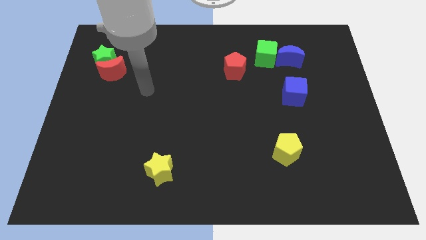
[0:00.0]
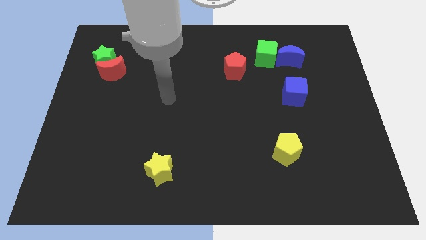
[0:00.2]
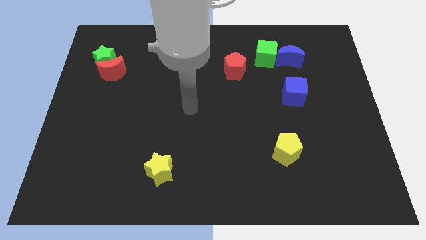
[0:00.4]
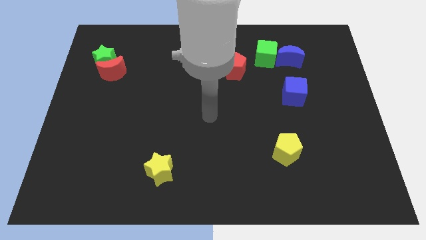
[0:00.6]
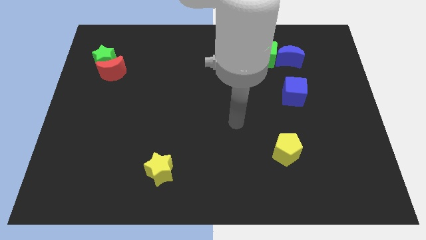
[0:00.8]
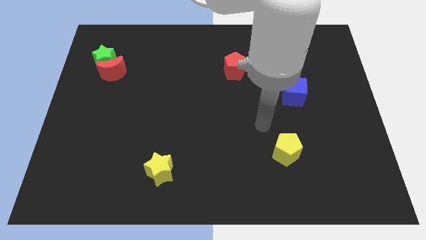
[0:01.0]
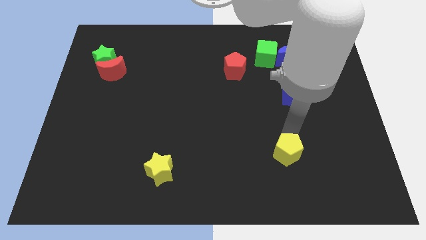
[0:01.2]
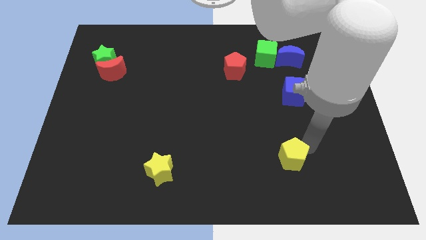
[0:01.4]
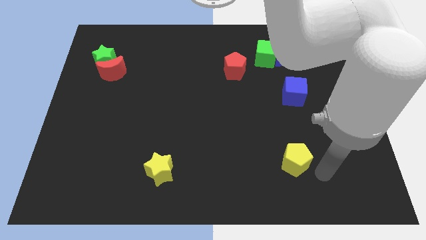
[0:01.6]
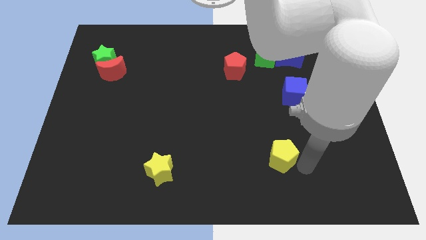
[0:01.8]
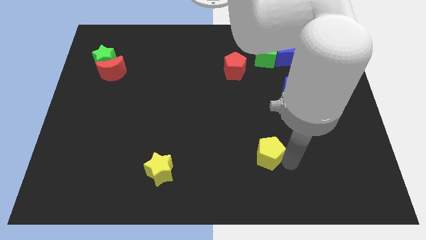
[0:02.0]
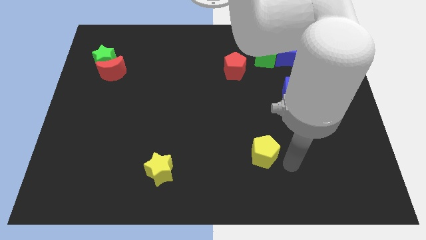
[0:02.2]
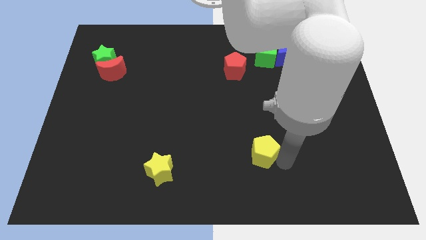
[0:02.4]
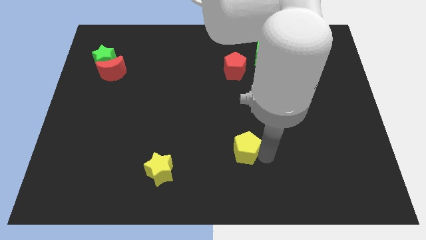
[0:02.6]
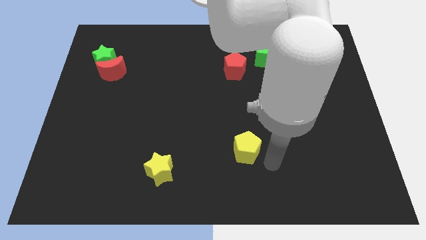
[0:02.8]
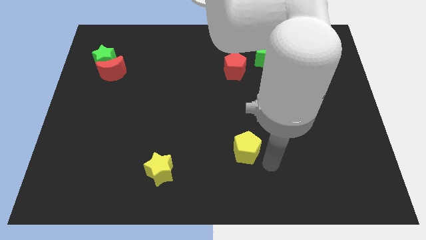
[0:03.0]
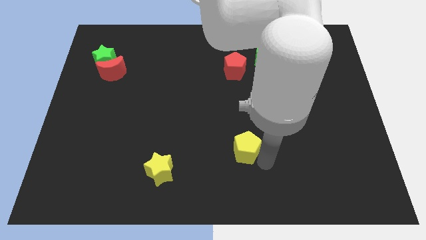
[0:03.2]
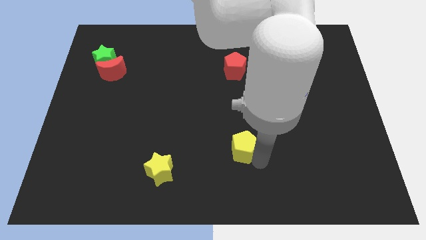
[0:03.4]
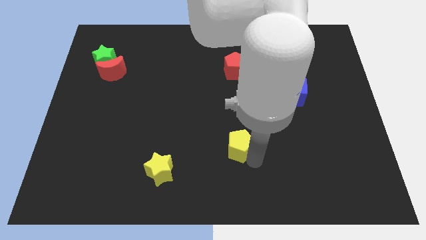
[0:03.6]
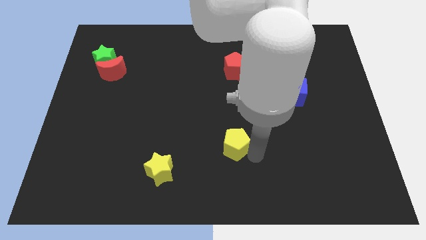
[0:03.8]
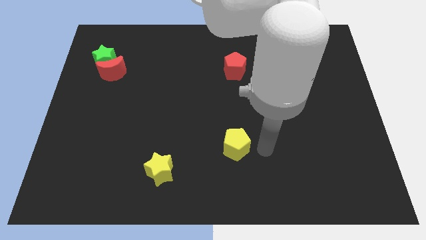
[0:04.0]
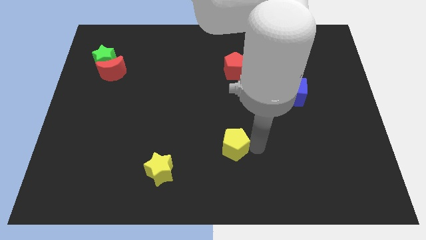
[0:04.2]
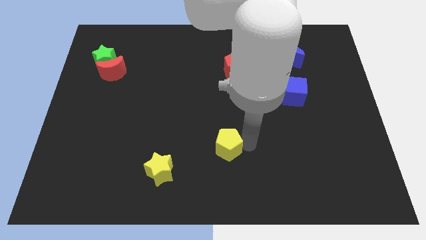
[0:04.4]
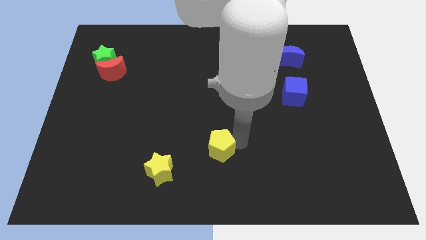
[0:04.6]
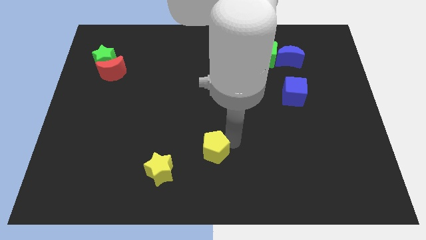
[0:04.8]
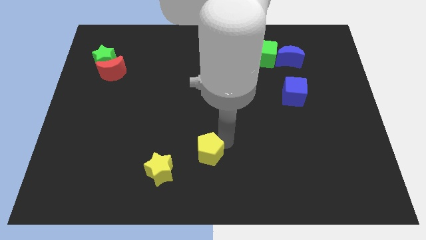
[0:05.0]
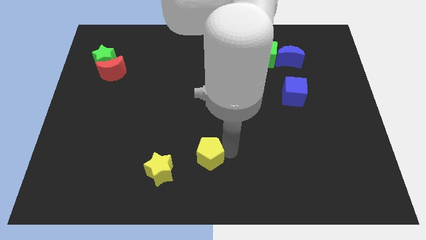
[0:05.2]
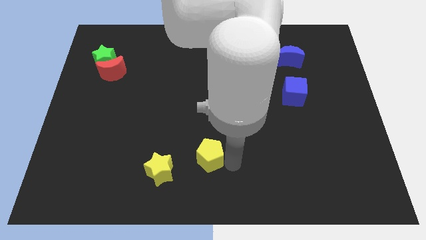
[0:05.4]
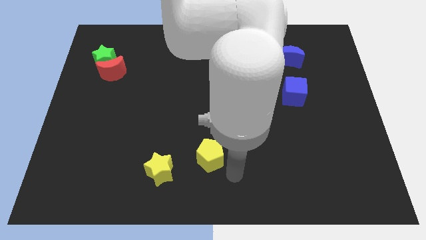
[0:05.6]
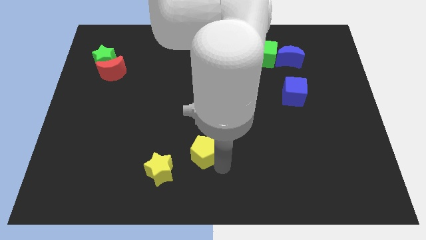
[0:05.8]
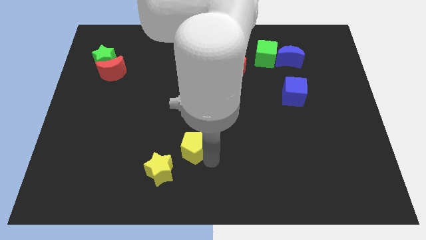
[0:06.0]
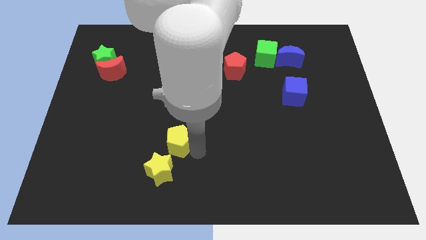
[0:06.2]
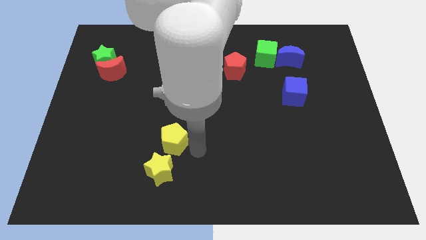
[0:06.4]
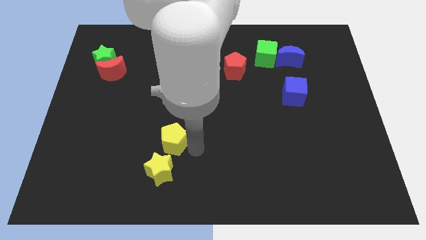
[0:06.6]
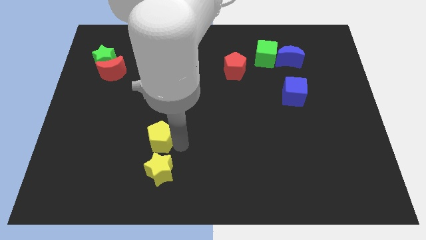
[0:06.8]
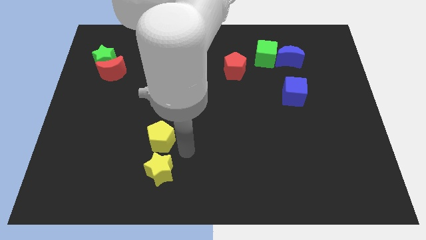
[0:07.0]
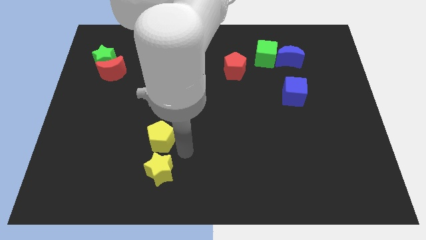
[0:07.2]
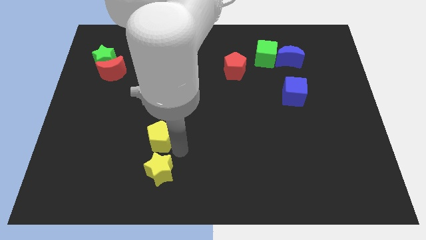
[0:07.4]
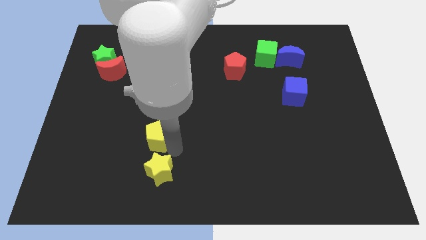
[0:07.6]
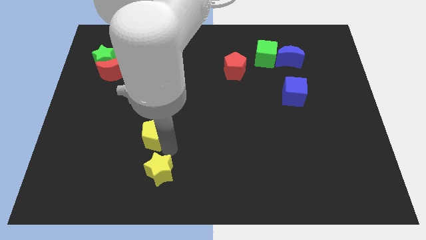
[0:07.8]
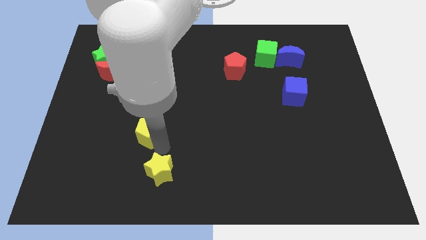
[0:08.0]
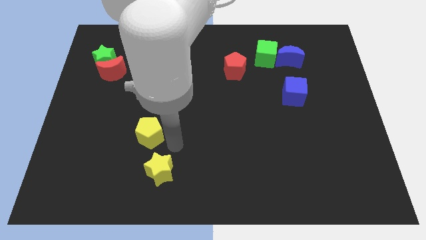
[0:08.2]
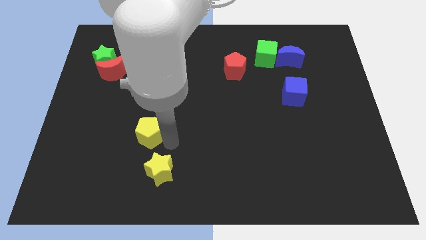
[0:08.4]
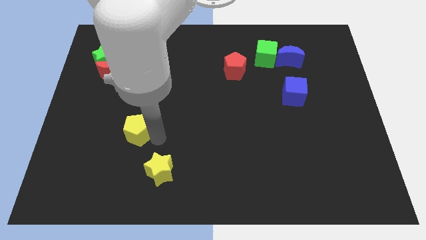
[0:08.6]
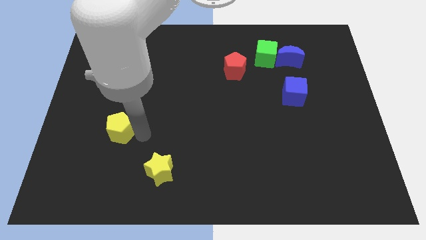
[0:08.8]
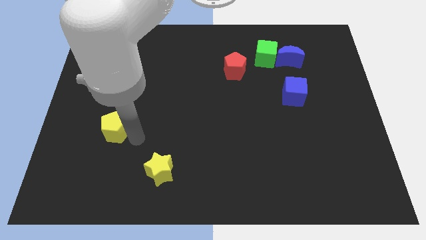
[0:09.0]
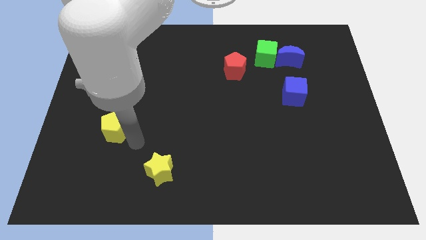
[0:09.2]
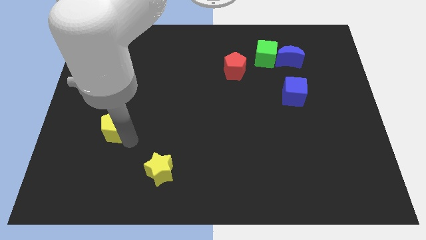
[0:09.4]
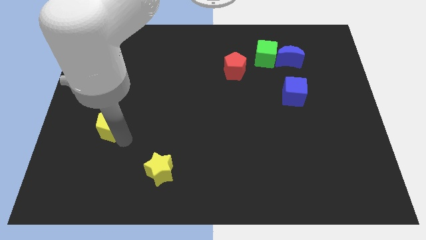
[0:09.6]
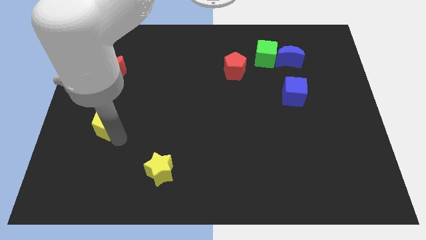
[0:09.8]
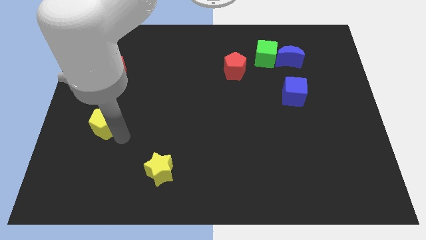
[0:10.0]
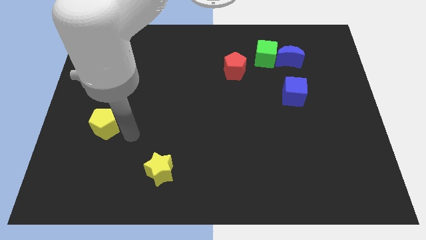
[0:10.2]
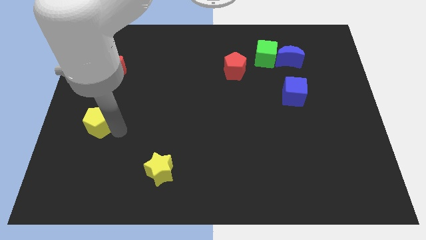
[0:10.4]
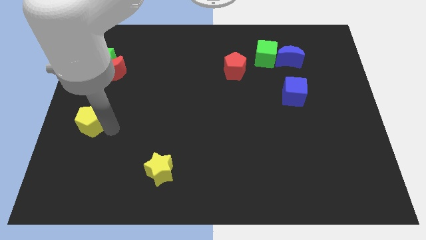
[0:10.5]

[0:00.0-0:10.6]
put the yellow pentagon to the center left

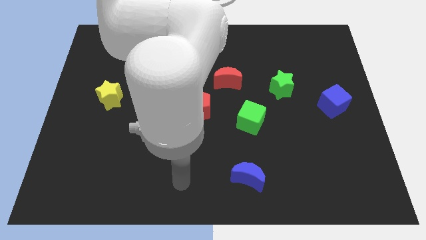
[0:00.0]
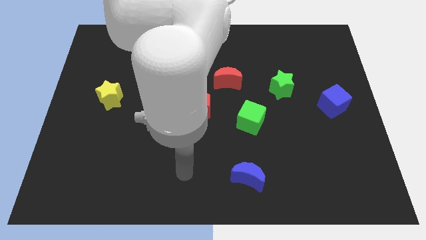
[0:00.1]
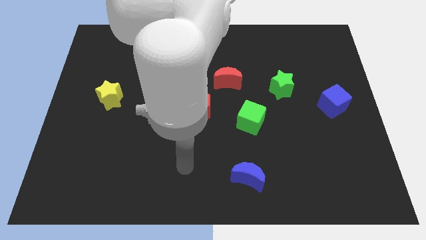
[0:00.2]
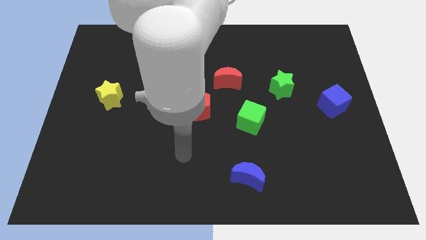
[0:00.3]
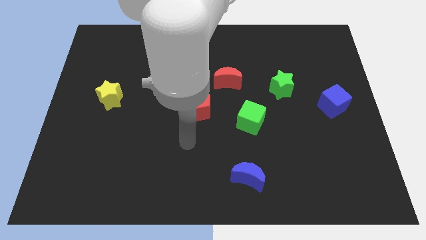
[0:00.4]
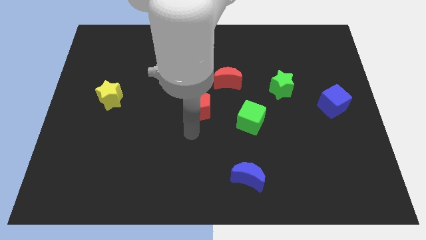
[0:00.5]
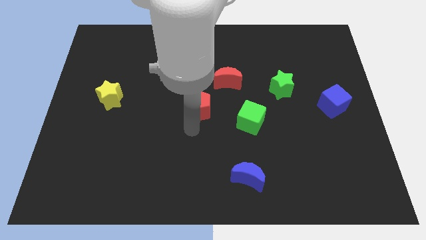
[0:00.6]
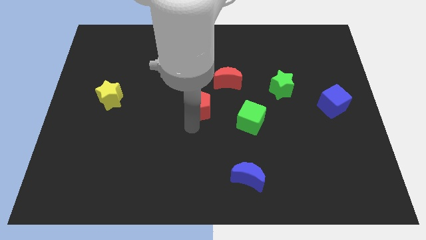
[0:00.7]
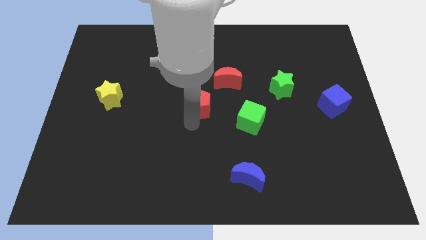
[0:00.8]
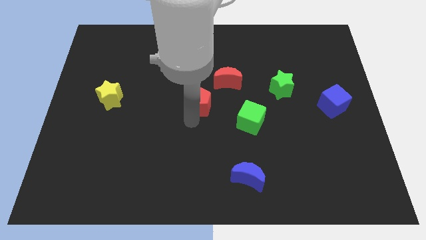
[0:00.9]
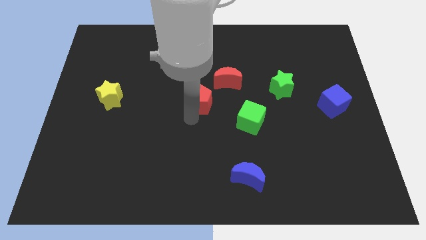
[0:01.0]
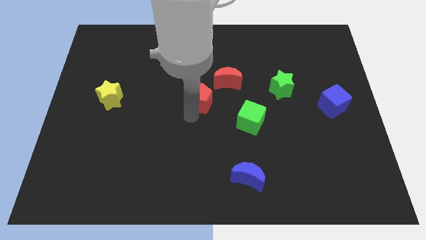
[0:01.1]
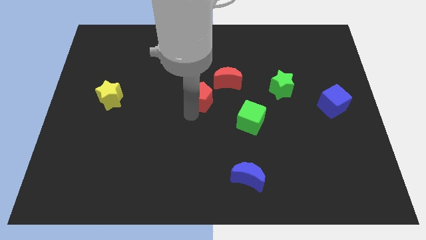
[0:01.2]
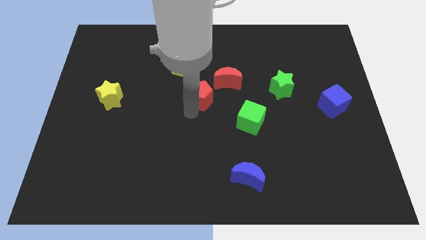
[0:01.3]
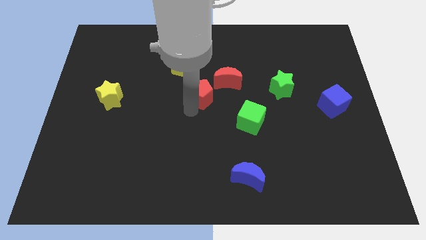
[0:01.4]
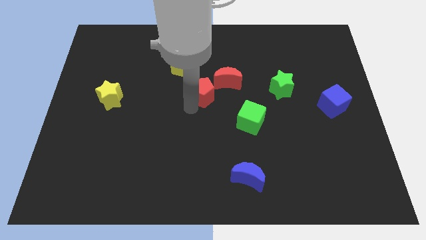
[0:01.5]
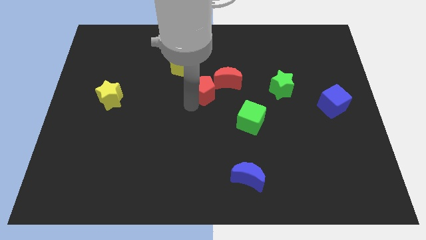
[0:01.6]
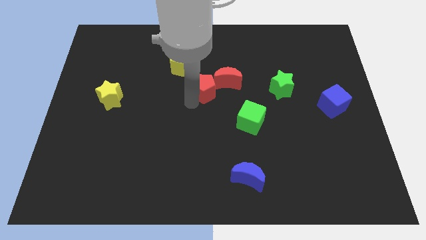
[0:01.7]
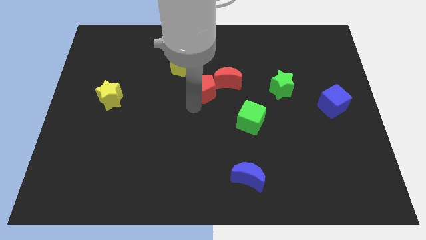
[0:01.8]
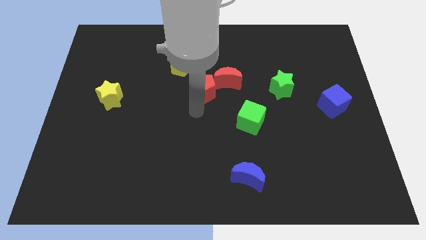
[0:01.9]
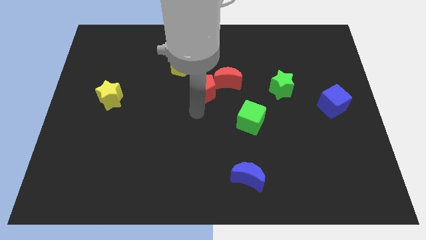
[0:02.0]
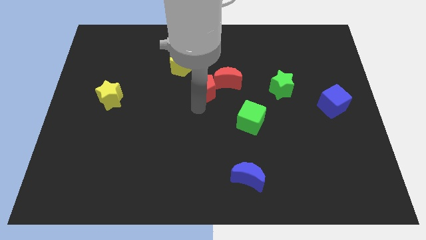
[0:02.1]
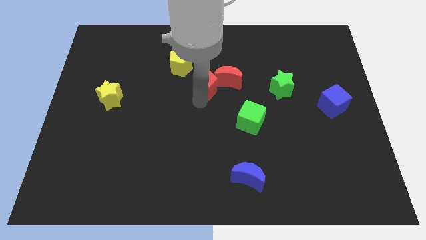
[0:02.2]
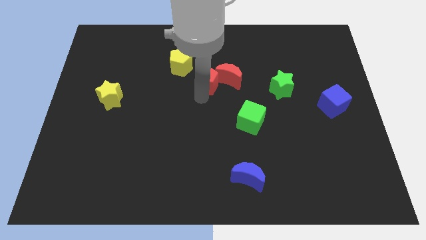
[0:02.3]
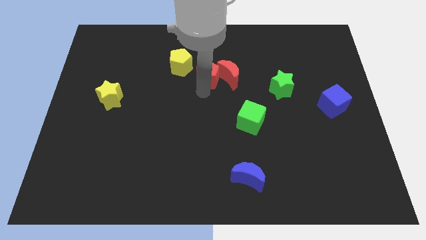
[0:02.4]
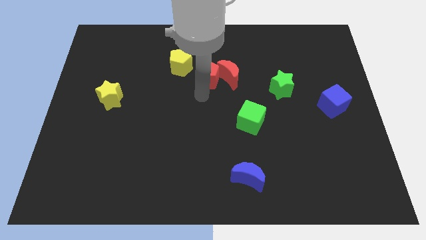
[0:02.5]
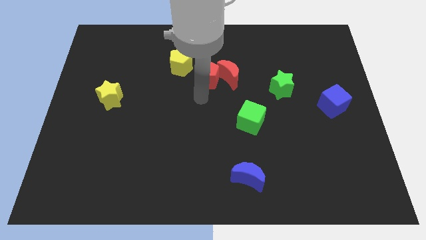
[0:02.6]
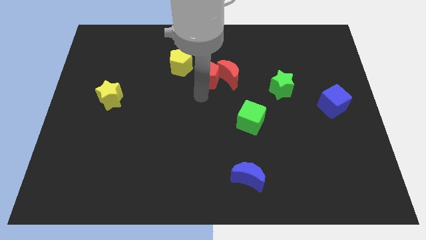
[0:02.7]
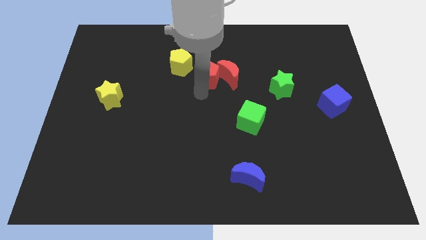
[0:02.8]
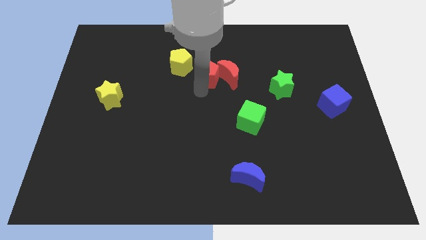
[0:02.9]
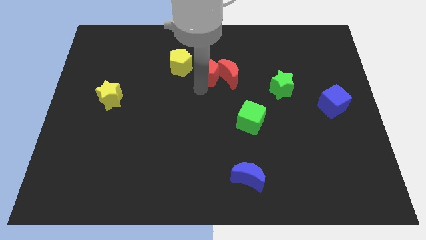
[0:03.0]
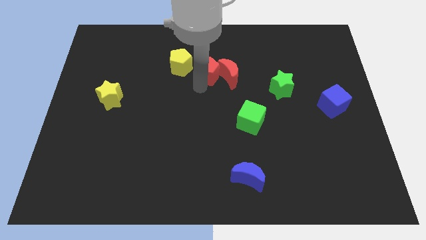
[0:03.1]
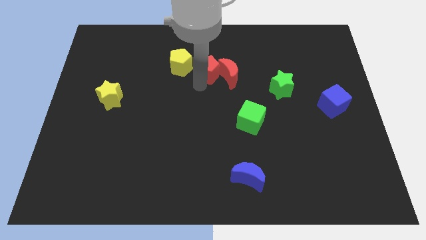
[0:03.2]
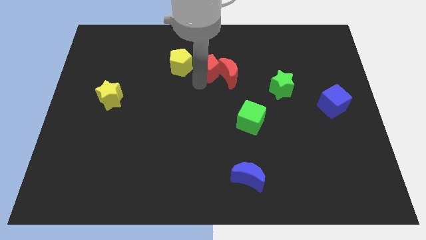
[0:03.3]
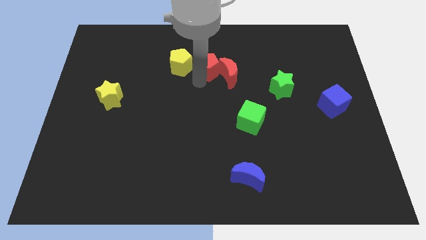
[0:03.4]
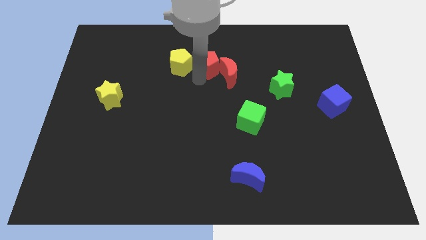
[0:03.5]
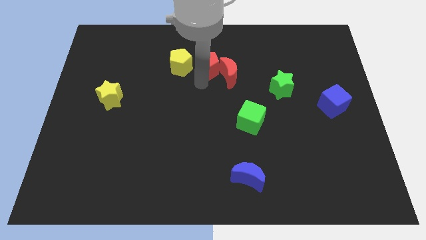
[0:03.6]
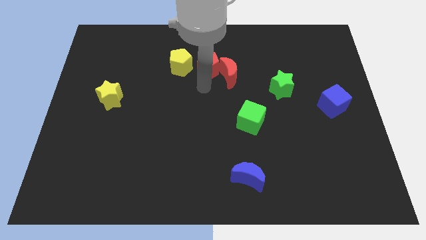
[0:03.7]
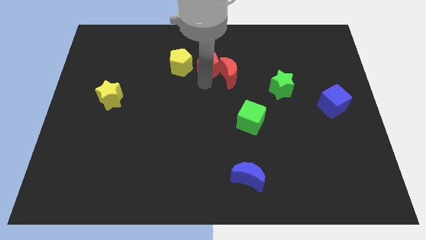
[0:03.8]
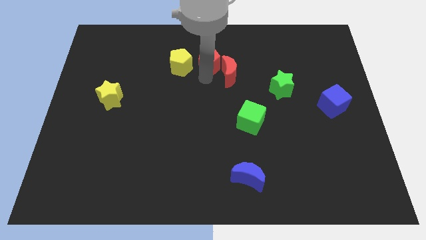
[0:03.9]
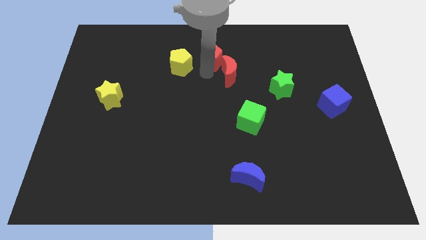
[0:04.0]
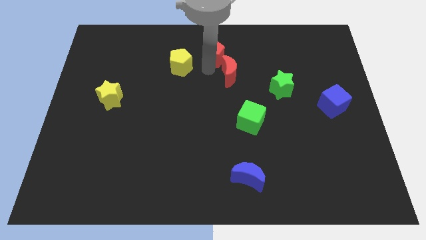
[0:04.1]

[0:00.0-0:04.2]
push the red pentagon to the top side
